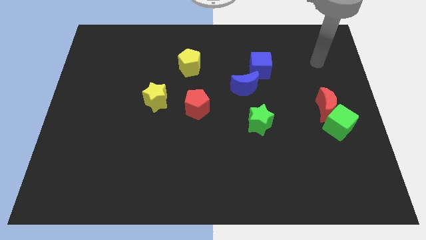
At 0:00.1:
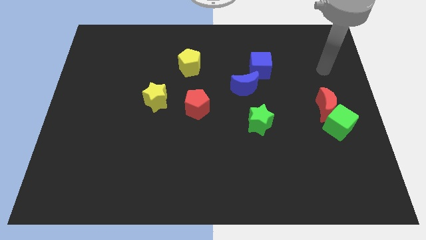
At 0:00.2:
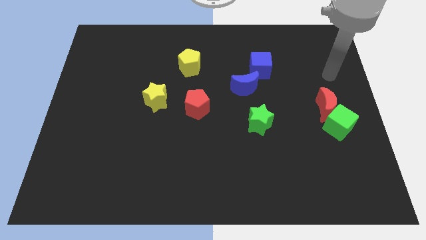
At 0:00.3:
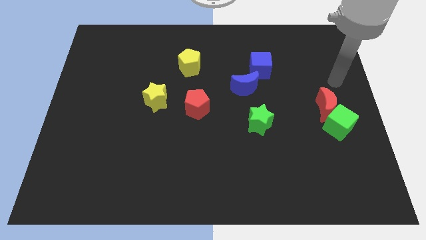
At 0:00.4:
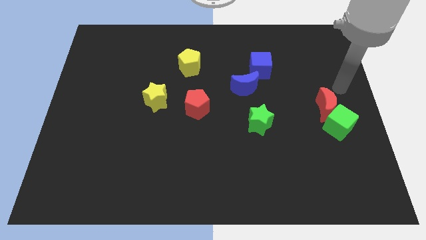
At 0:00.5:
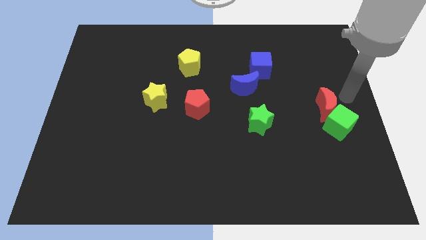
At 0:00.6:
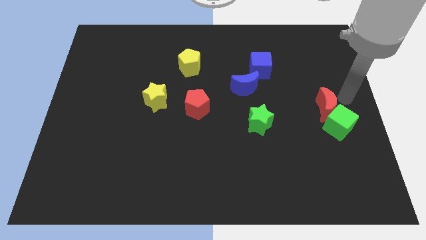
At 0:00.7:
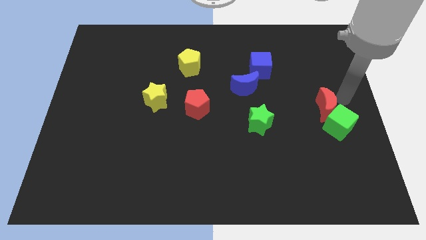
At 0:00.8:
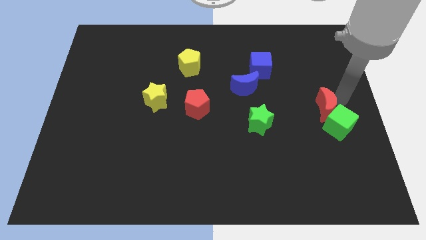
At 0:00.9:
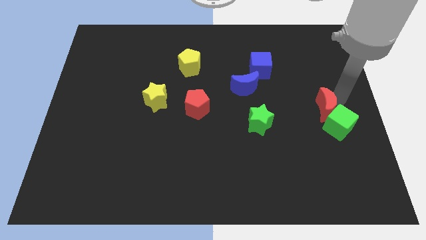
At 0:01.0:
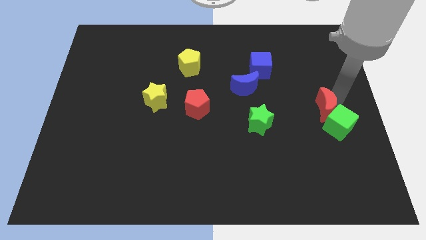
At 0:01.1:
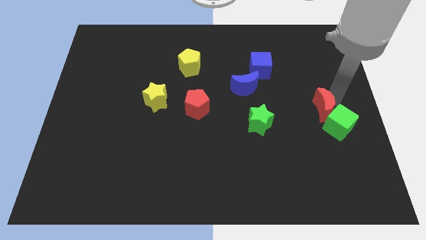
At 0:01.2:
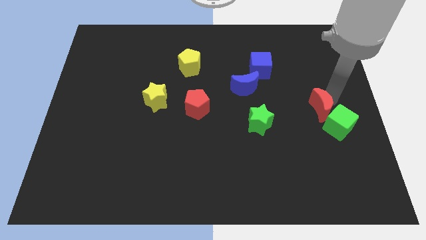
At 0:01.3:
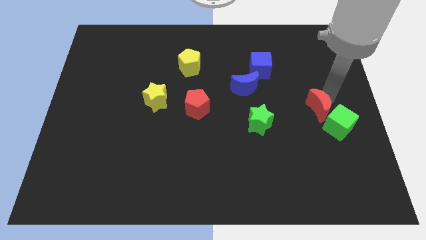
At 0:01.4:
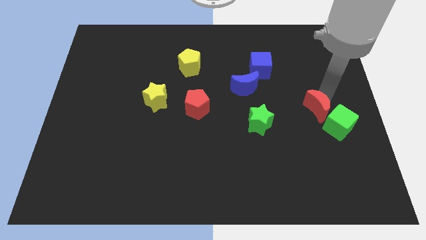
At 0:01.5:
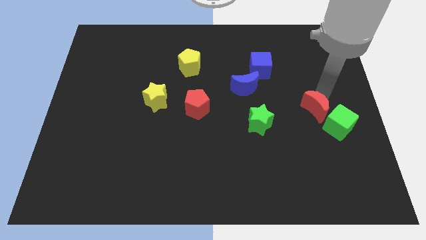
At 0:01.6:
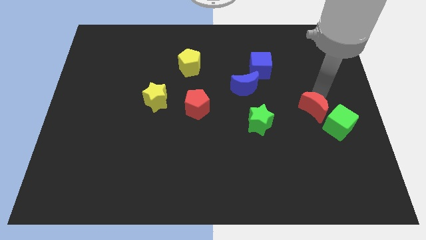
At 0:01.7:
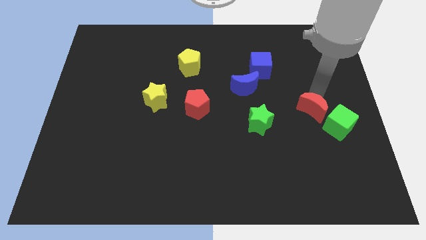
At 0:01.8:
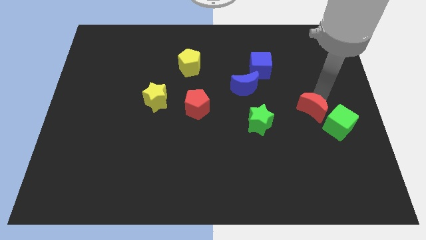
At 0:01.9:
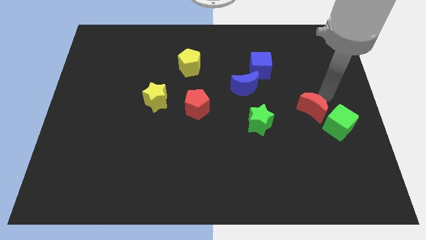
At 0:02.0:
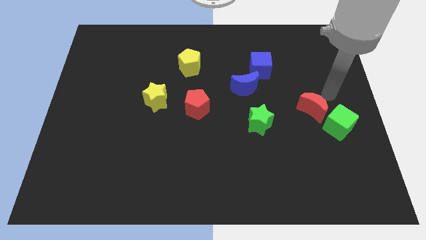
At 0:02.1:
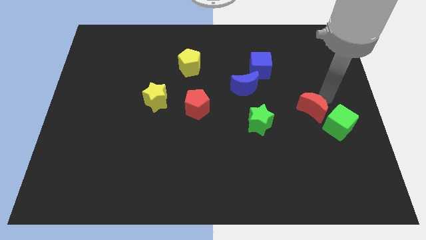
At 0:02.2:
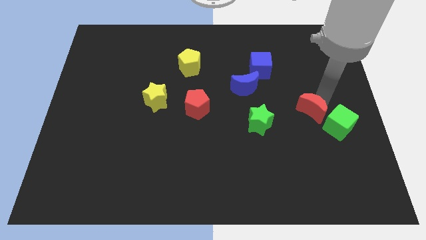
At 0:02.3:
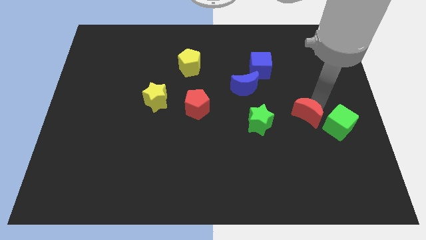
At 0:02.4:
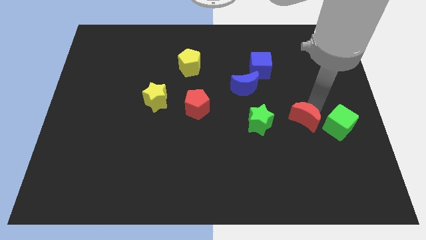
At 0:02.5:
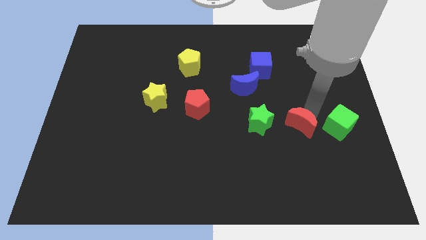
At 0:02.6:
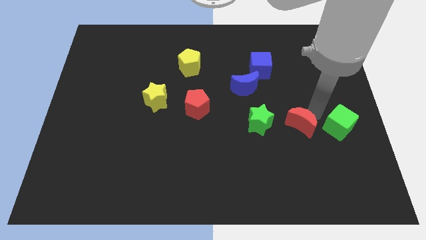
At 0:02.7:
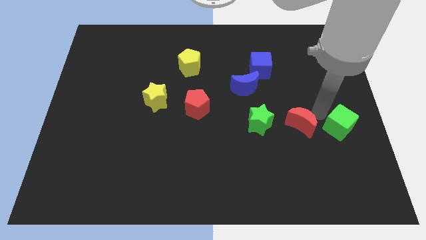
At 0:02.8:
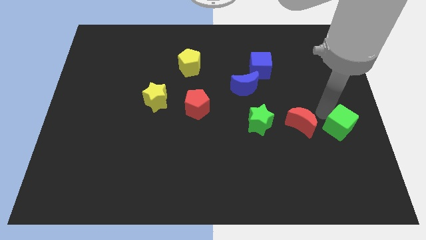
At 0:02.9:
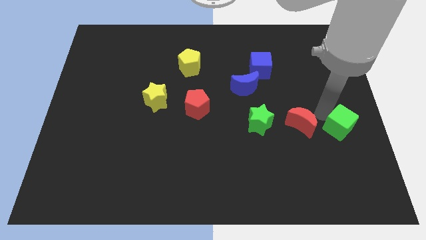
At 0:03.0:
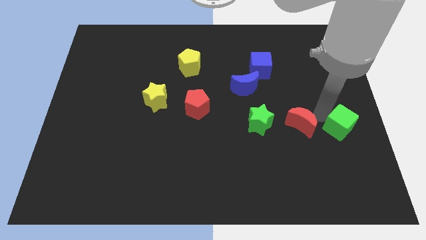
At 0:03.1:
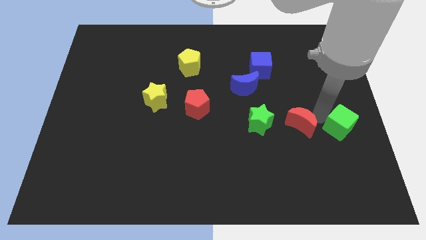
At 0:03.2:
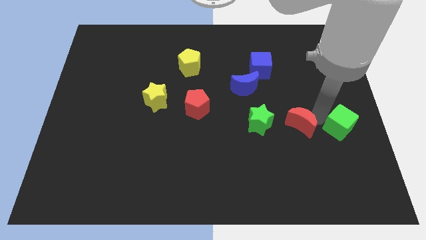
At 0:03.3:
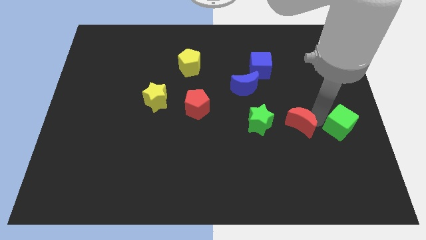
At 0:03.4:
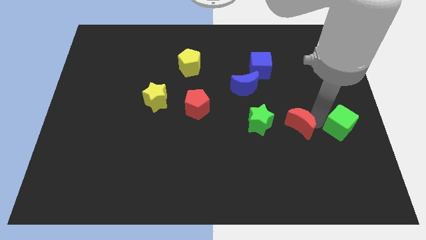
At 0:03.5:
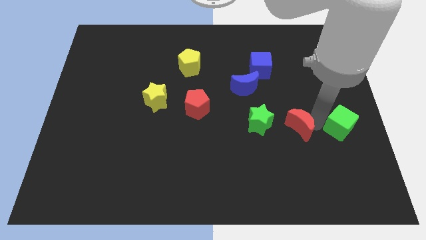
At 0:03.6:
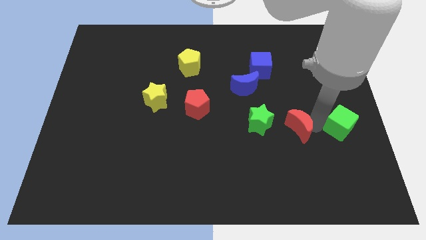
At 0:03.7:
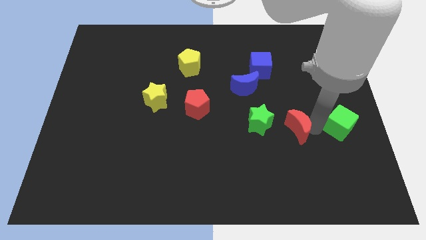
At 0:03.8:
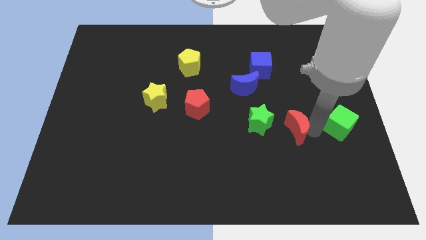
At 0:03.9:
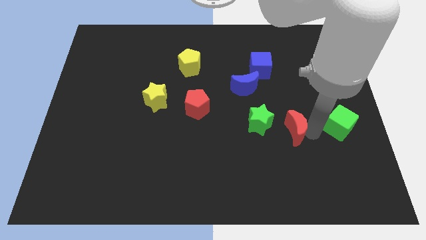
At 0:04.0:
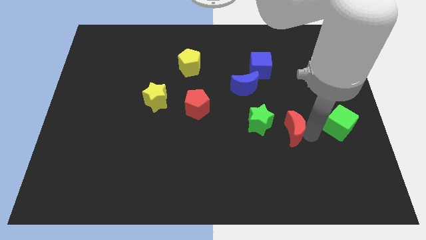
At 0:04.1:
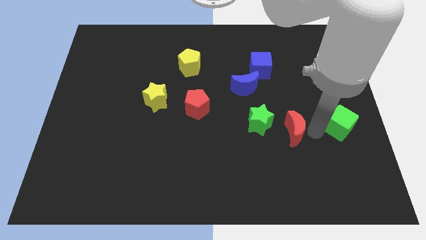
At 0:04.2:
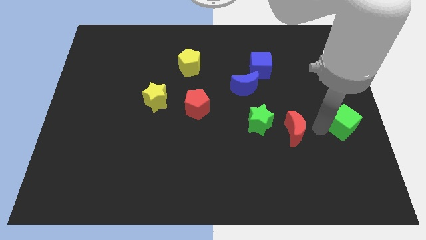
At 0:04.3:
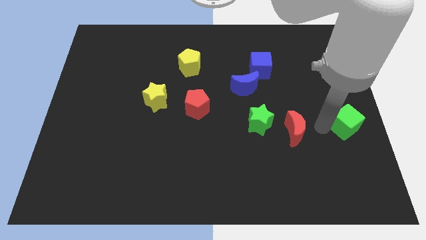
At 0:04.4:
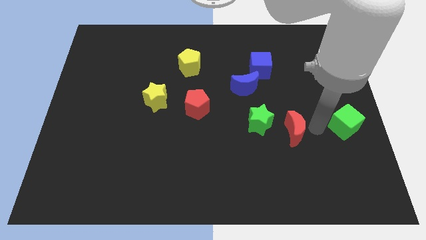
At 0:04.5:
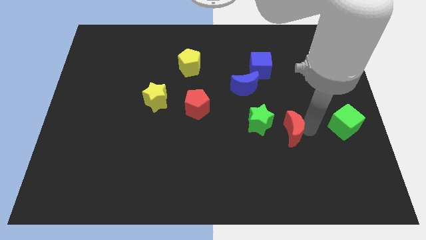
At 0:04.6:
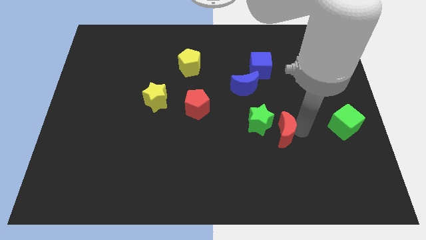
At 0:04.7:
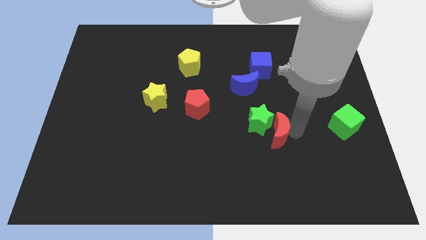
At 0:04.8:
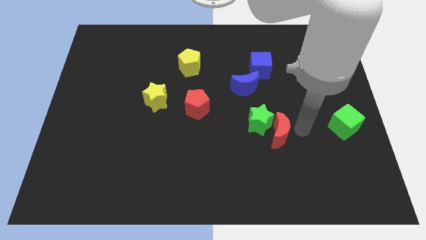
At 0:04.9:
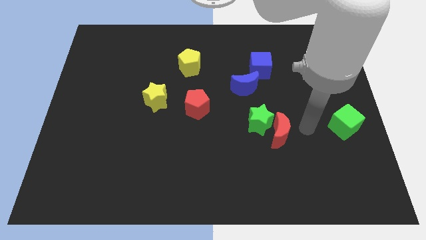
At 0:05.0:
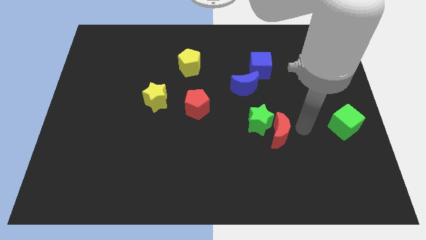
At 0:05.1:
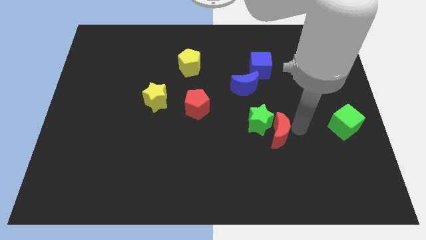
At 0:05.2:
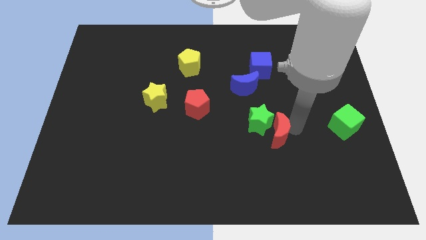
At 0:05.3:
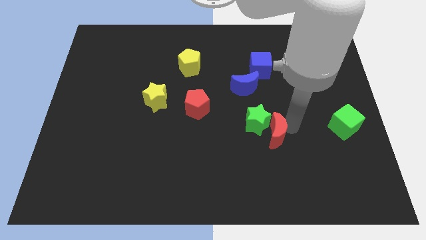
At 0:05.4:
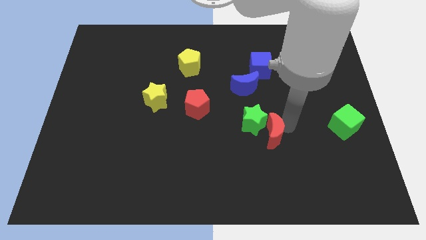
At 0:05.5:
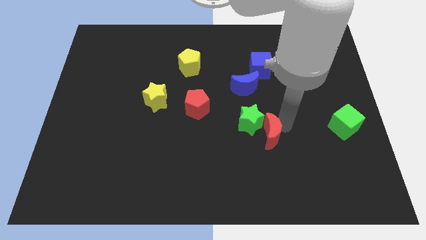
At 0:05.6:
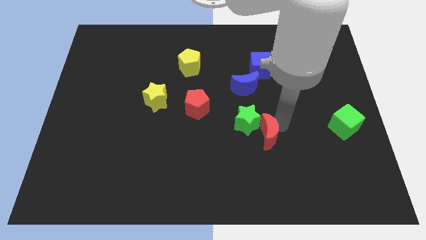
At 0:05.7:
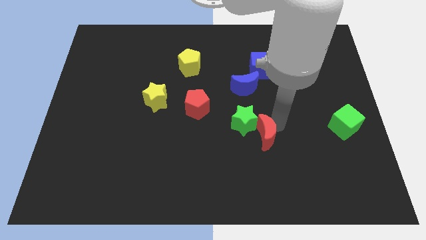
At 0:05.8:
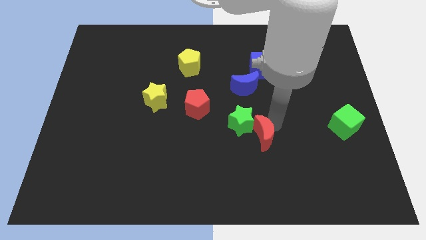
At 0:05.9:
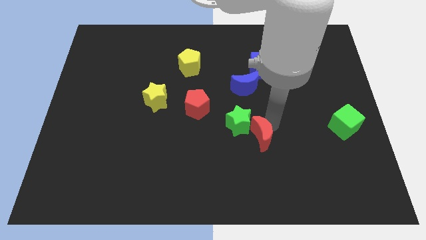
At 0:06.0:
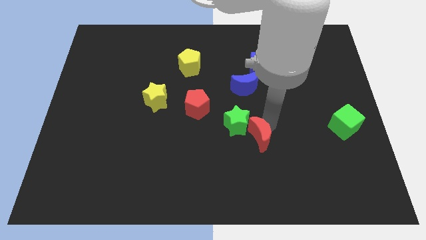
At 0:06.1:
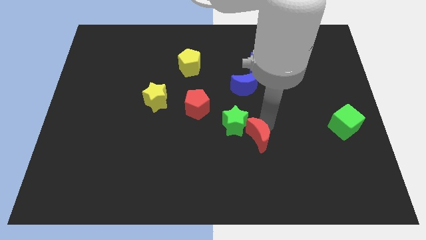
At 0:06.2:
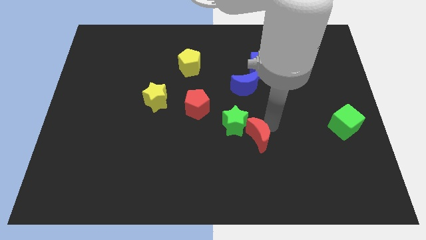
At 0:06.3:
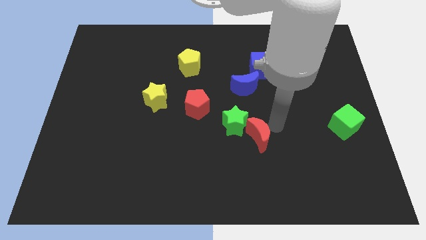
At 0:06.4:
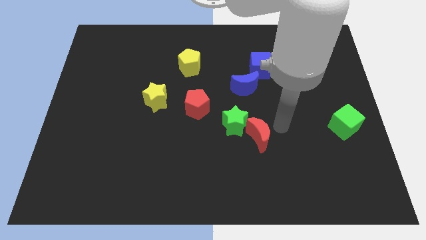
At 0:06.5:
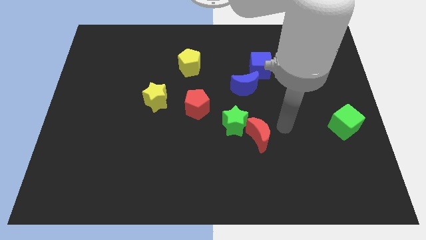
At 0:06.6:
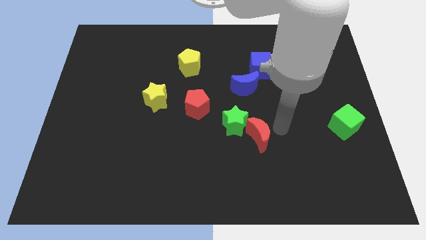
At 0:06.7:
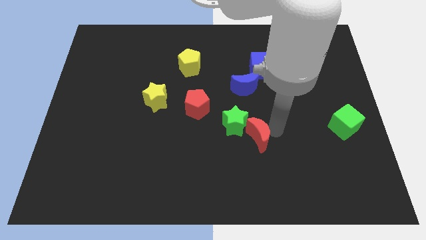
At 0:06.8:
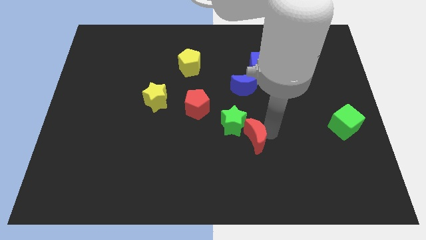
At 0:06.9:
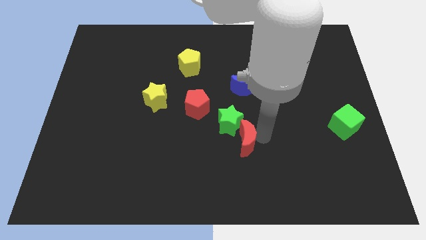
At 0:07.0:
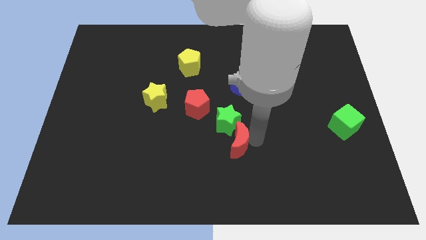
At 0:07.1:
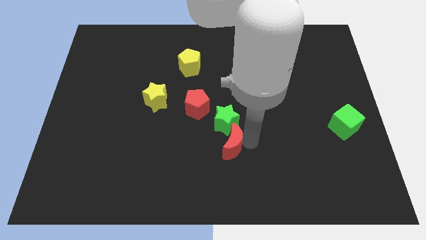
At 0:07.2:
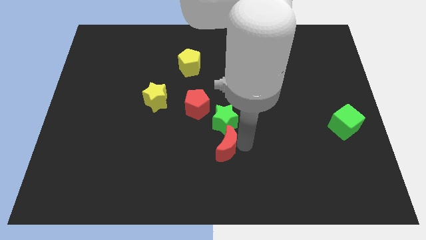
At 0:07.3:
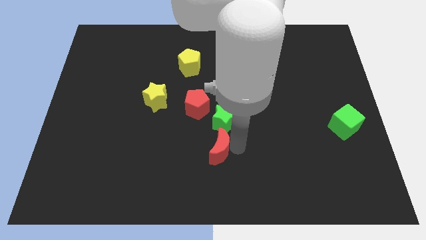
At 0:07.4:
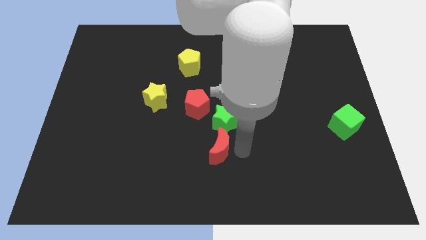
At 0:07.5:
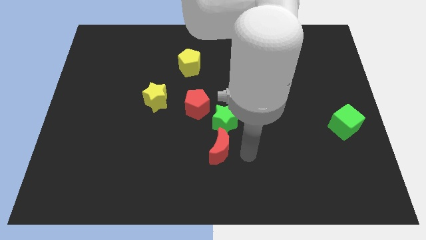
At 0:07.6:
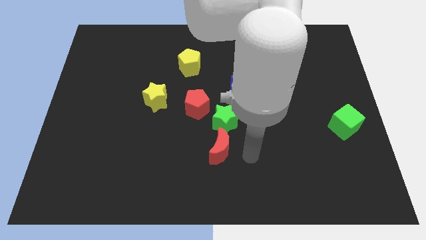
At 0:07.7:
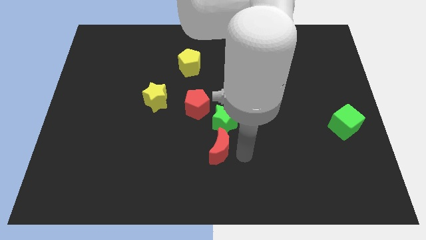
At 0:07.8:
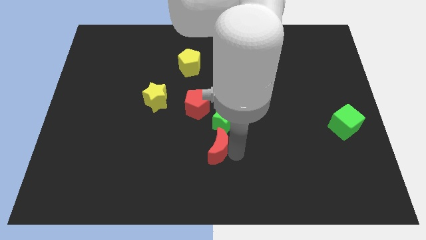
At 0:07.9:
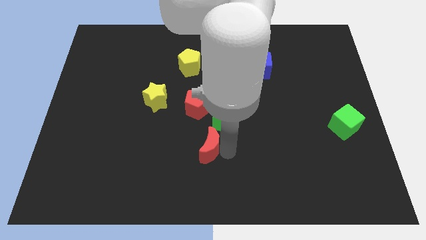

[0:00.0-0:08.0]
move the red moon to the bottom of the red pentagon

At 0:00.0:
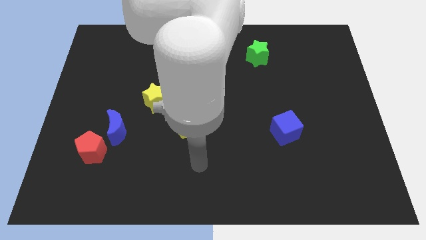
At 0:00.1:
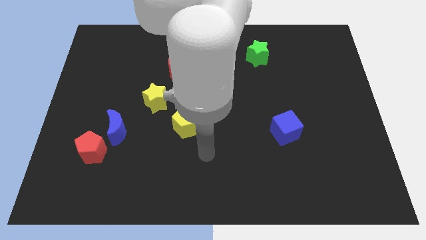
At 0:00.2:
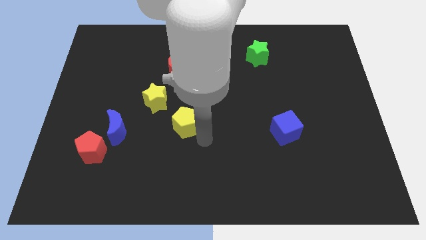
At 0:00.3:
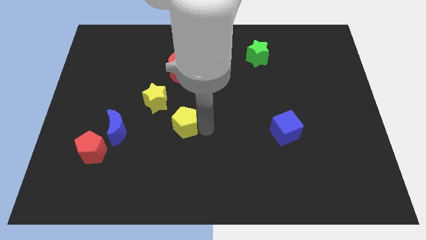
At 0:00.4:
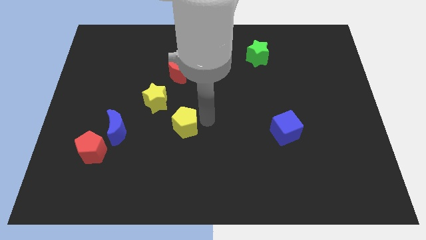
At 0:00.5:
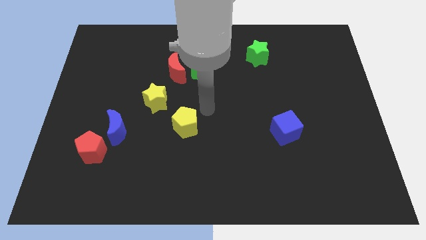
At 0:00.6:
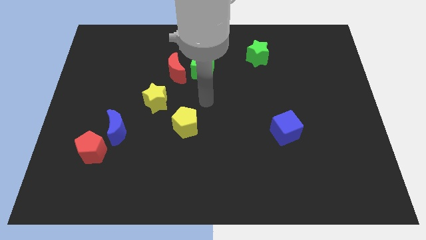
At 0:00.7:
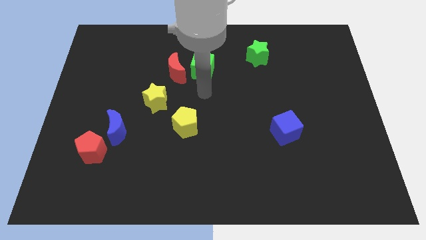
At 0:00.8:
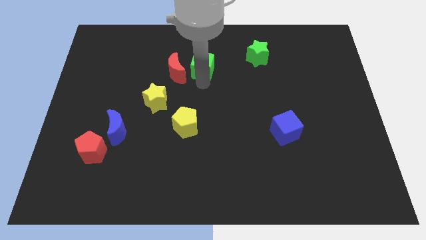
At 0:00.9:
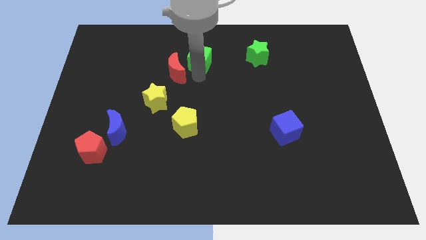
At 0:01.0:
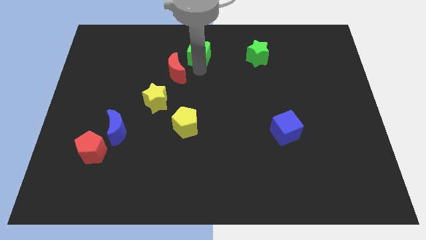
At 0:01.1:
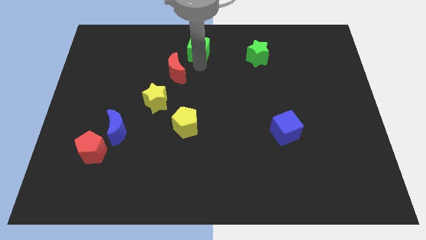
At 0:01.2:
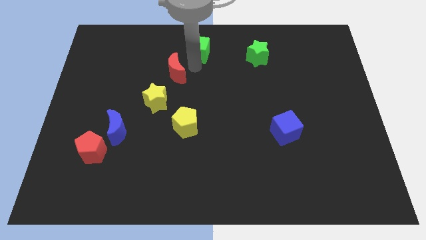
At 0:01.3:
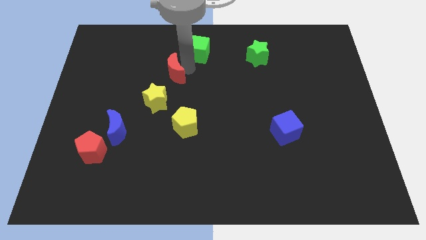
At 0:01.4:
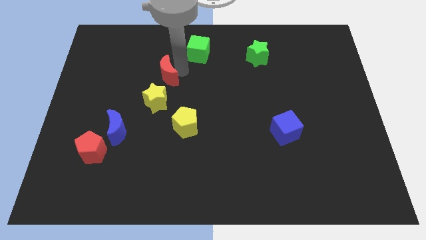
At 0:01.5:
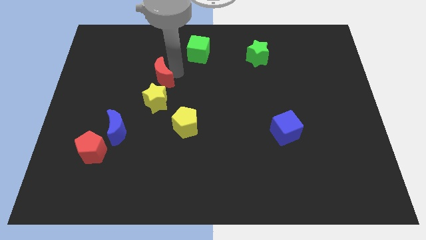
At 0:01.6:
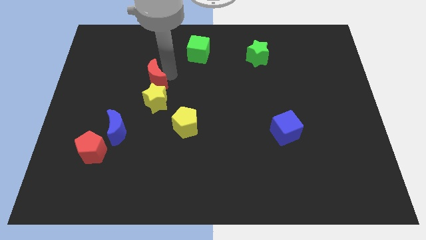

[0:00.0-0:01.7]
move the red moon to the top left side of the yellow star
